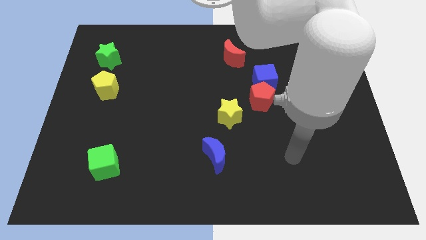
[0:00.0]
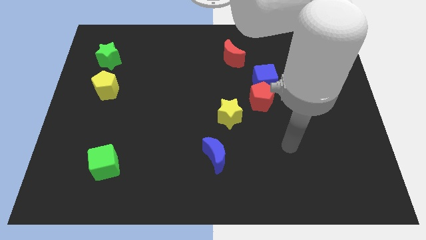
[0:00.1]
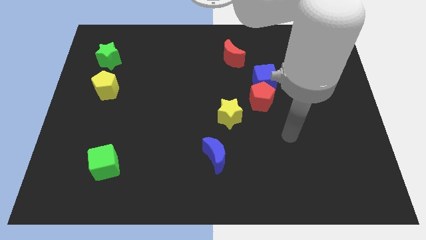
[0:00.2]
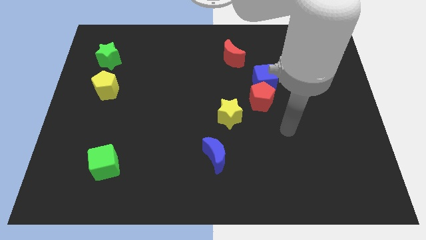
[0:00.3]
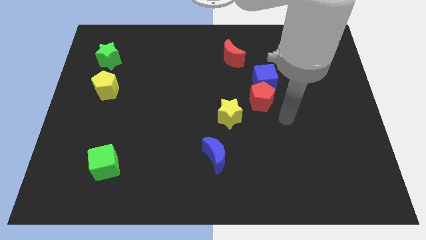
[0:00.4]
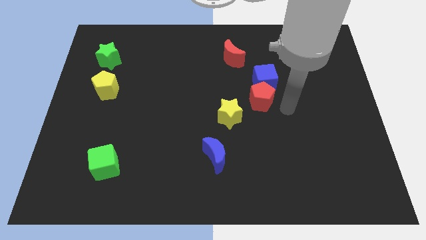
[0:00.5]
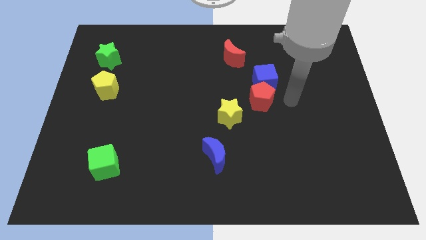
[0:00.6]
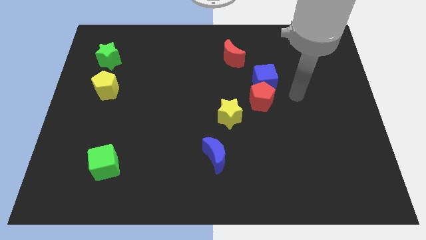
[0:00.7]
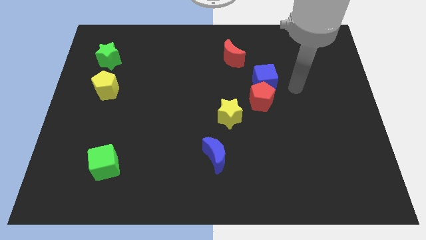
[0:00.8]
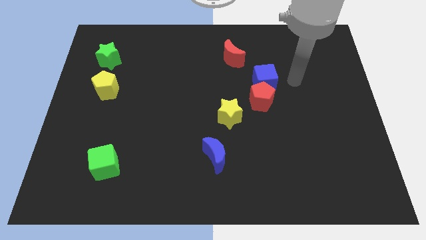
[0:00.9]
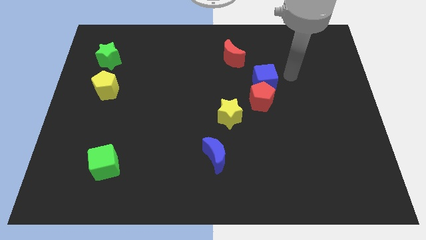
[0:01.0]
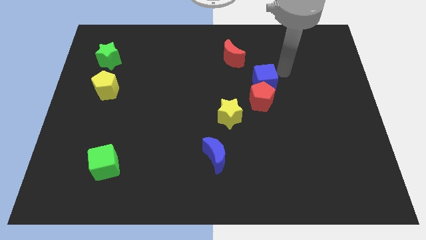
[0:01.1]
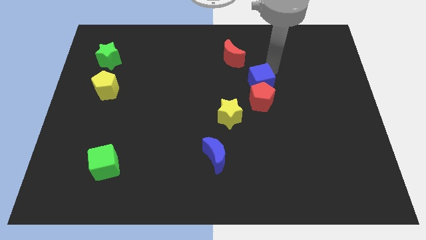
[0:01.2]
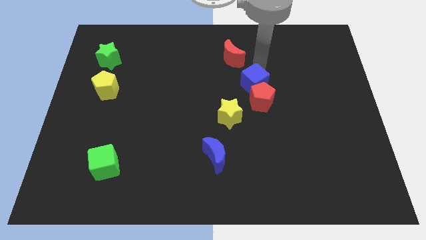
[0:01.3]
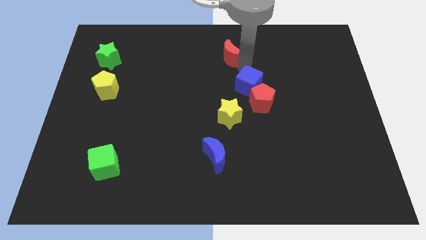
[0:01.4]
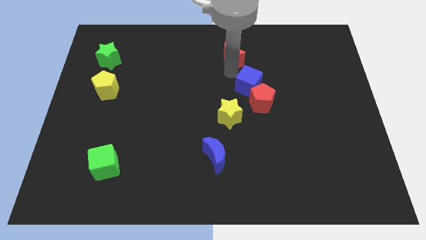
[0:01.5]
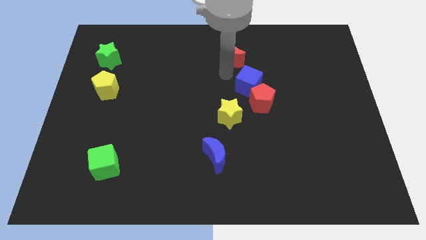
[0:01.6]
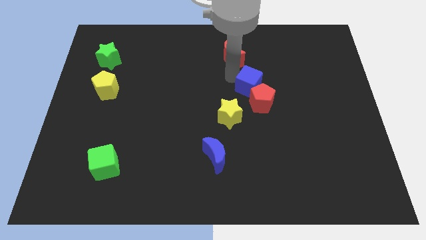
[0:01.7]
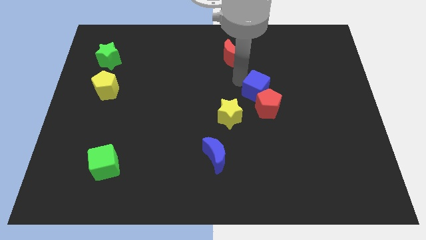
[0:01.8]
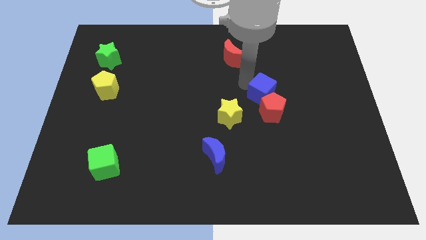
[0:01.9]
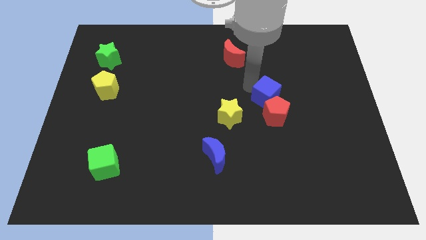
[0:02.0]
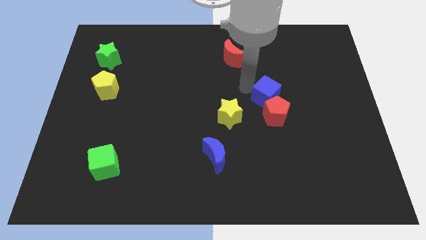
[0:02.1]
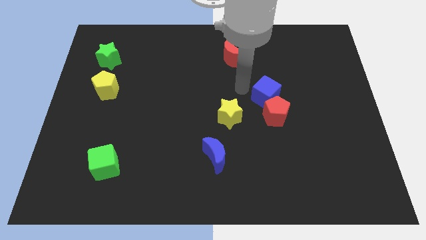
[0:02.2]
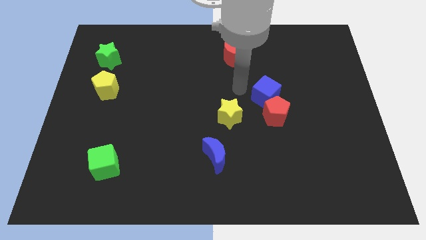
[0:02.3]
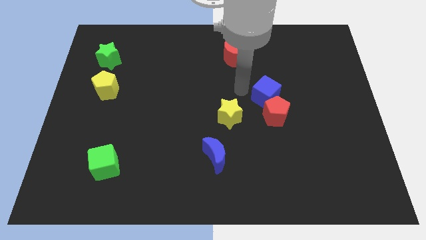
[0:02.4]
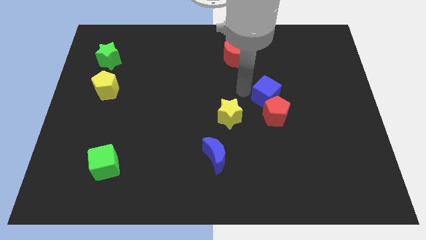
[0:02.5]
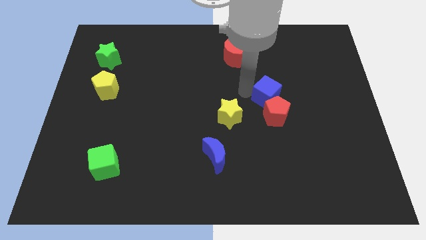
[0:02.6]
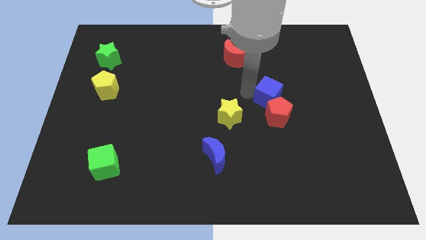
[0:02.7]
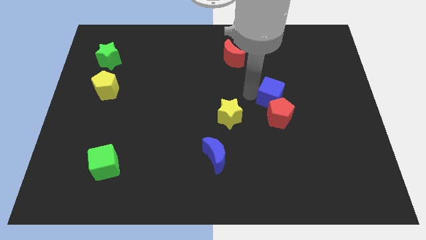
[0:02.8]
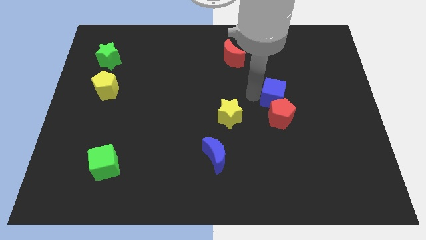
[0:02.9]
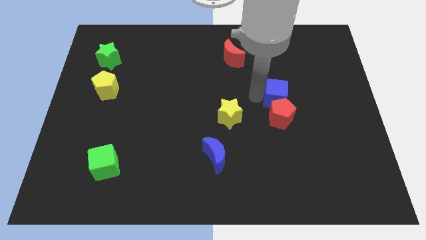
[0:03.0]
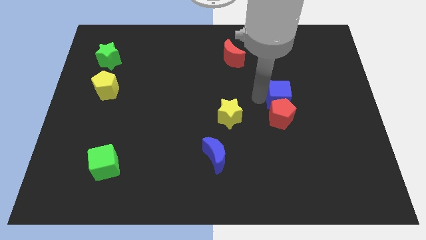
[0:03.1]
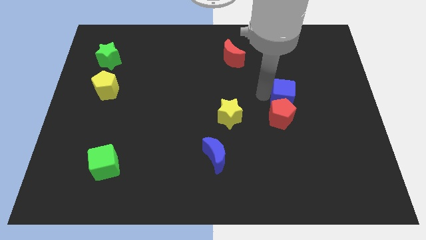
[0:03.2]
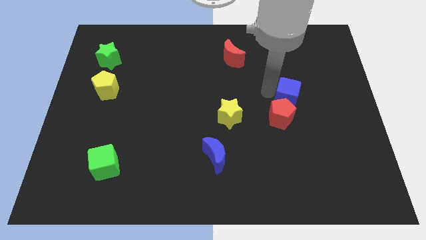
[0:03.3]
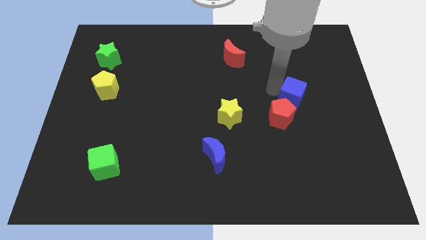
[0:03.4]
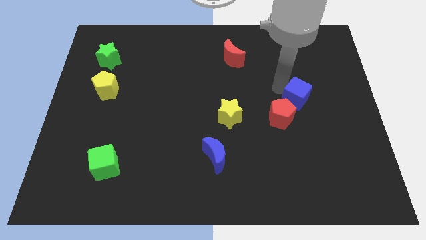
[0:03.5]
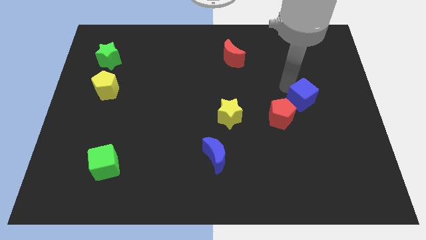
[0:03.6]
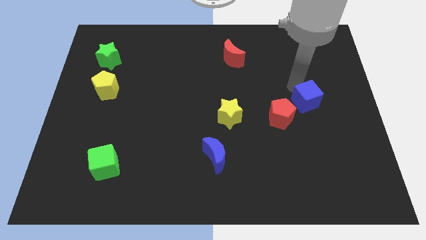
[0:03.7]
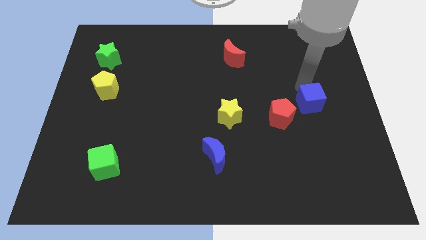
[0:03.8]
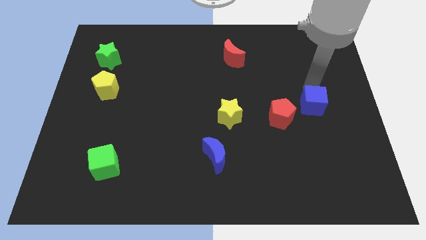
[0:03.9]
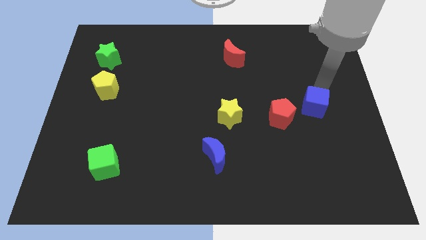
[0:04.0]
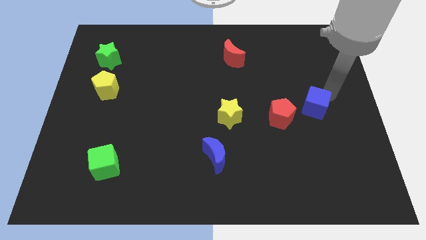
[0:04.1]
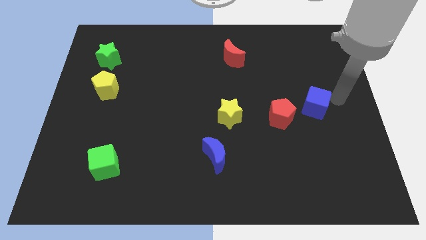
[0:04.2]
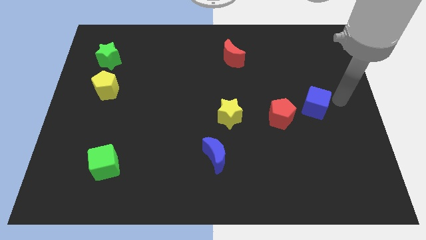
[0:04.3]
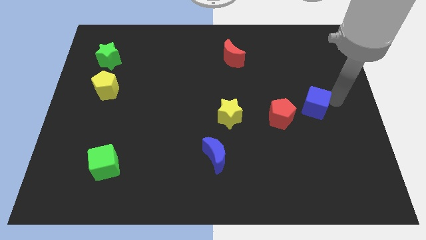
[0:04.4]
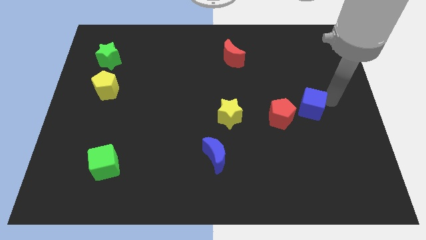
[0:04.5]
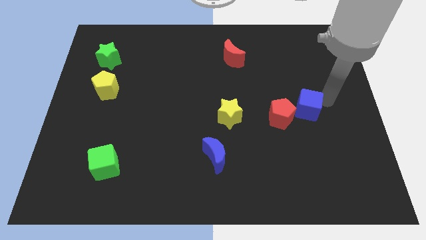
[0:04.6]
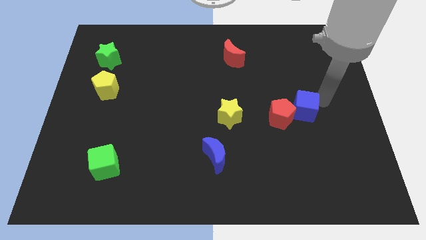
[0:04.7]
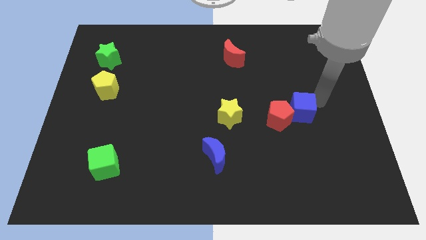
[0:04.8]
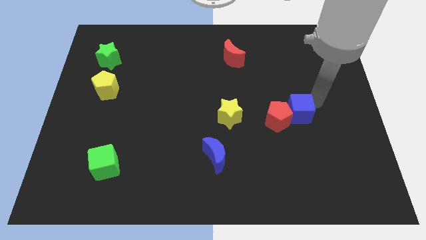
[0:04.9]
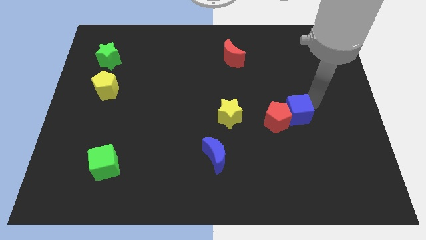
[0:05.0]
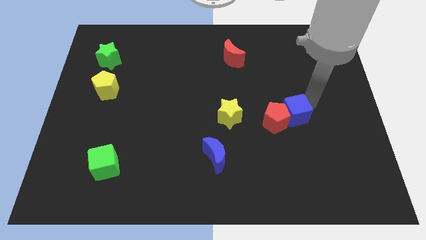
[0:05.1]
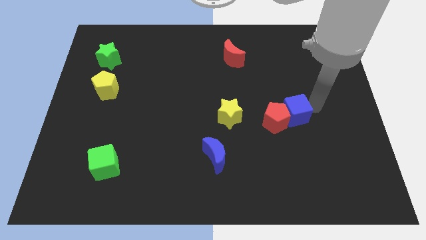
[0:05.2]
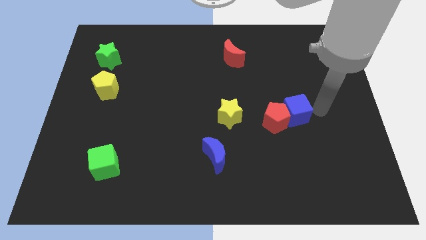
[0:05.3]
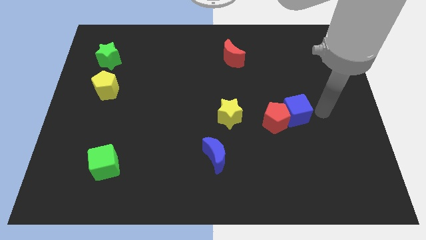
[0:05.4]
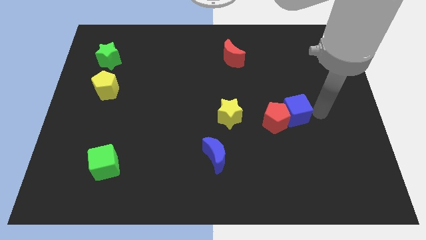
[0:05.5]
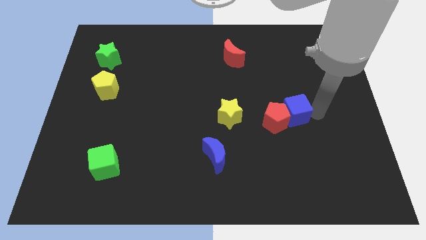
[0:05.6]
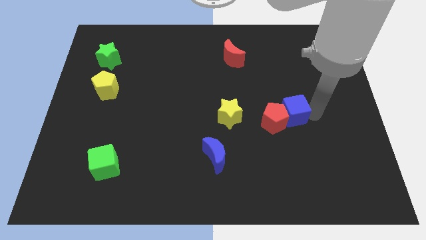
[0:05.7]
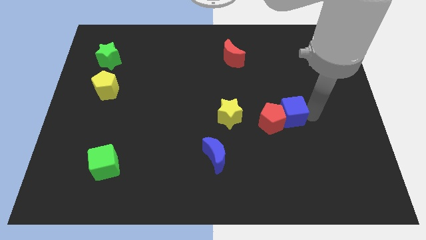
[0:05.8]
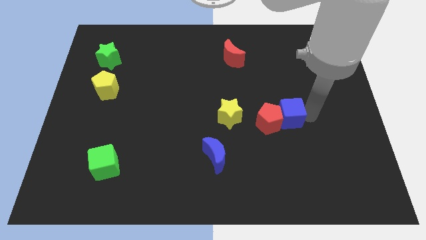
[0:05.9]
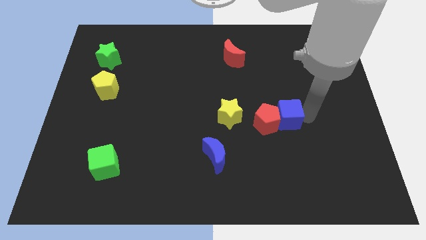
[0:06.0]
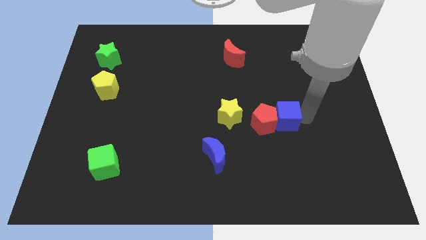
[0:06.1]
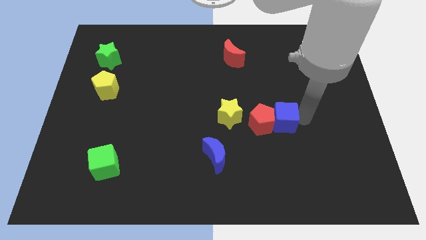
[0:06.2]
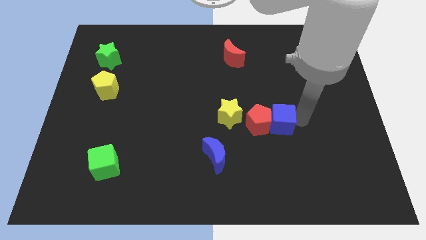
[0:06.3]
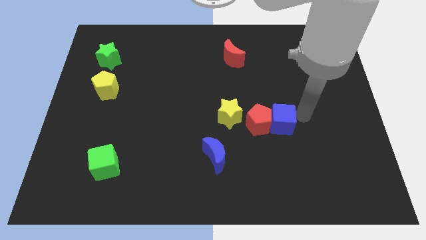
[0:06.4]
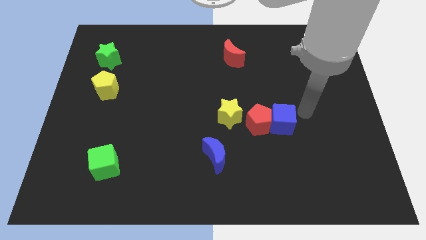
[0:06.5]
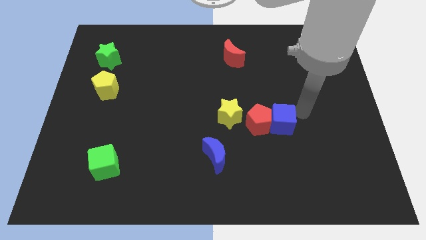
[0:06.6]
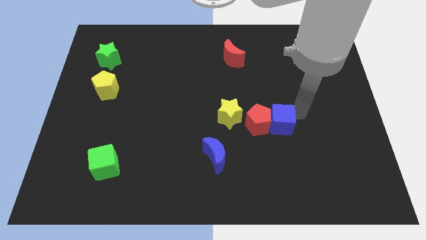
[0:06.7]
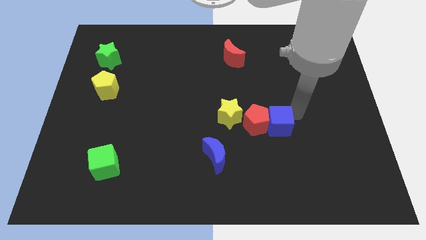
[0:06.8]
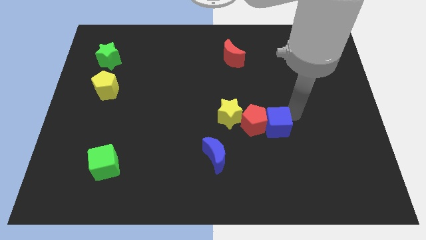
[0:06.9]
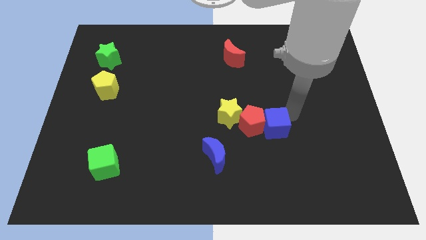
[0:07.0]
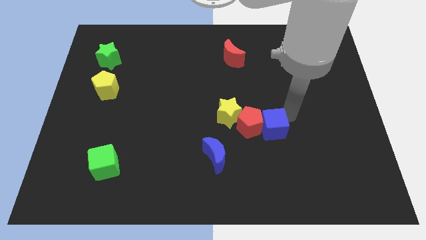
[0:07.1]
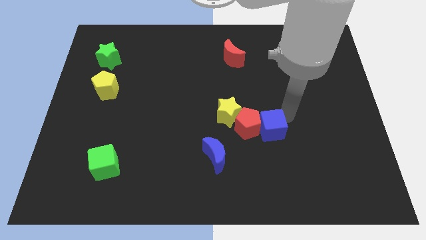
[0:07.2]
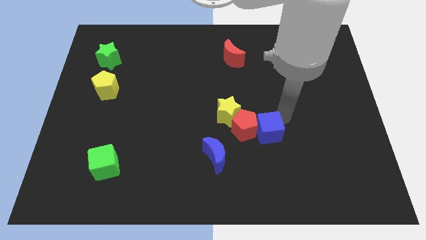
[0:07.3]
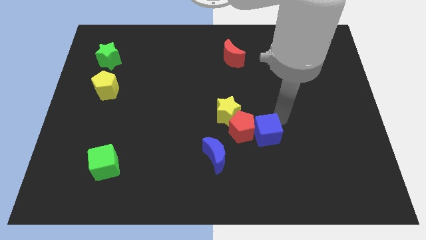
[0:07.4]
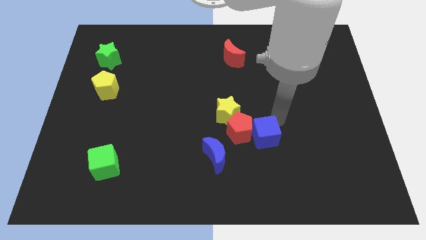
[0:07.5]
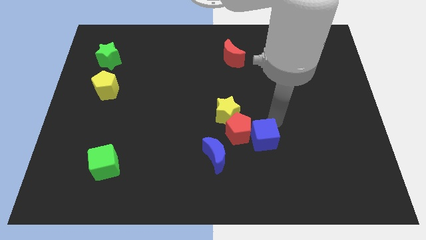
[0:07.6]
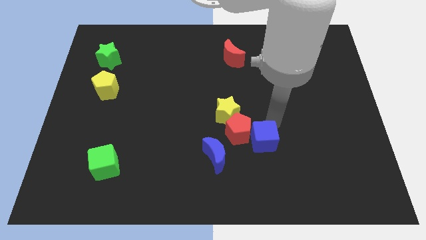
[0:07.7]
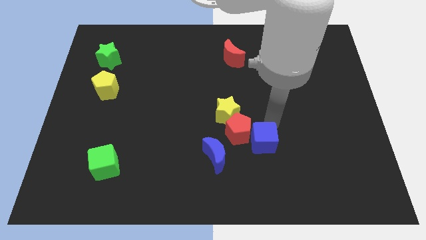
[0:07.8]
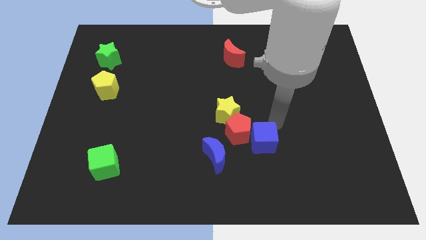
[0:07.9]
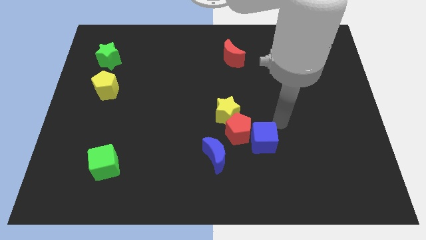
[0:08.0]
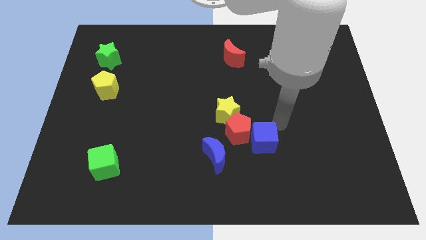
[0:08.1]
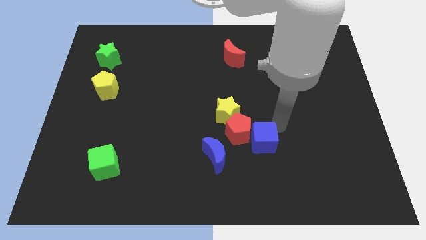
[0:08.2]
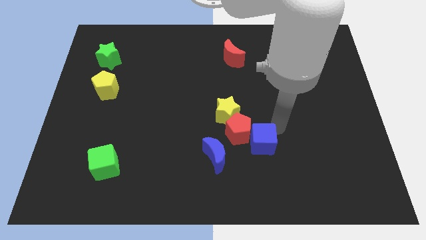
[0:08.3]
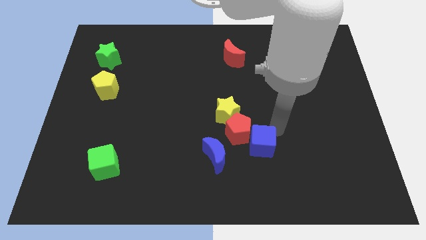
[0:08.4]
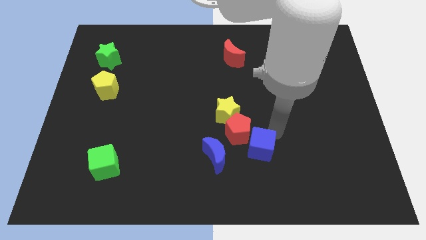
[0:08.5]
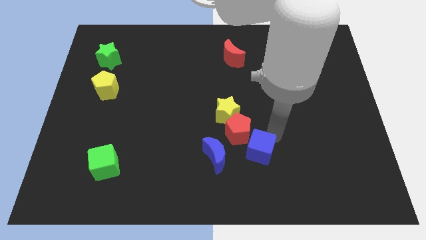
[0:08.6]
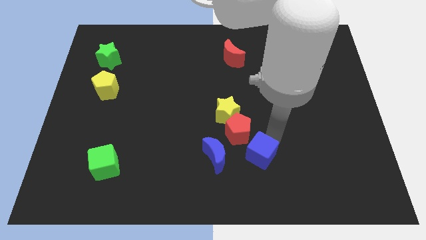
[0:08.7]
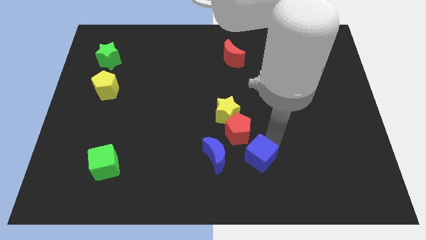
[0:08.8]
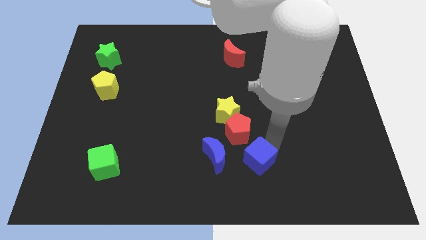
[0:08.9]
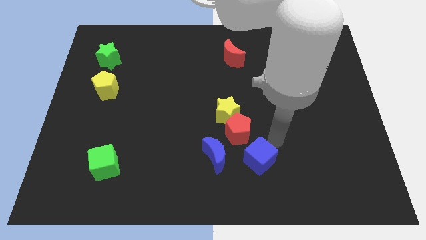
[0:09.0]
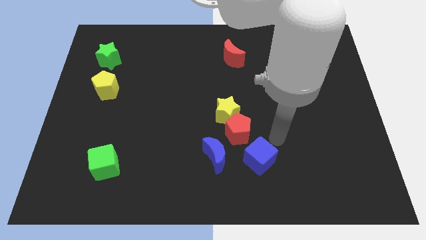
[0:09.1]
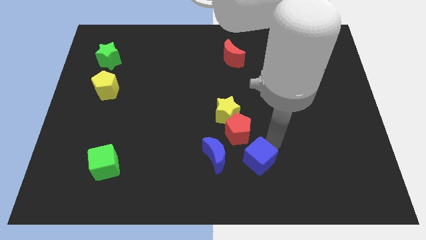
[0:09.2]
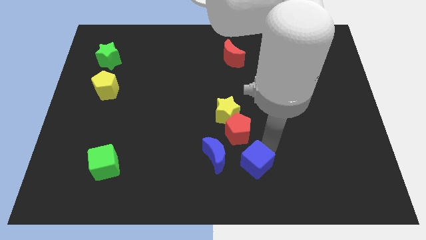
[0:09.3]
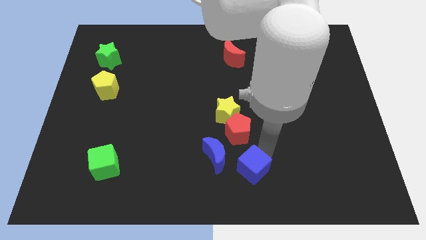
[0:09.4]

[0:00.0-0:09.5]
slide the blue cube to the bottom
